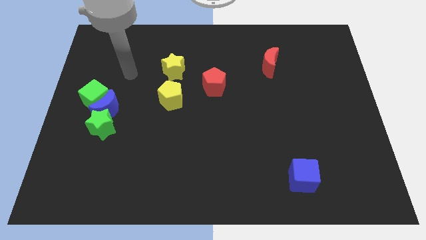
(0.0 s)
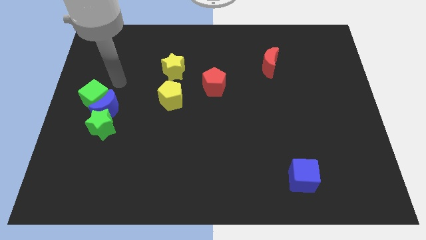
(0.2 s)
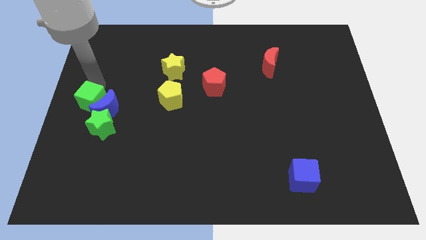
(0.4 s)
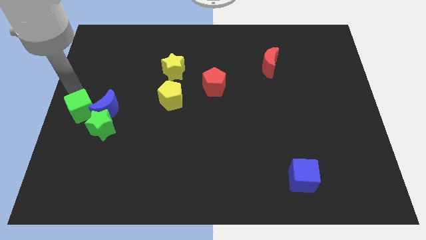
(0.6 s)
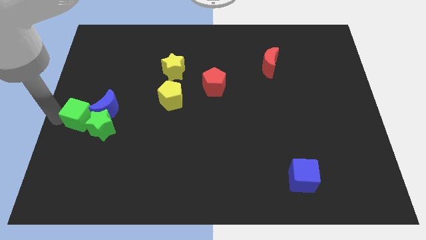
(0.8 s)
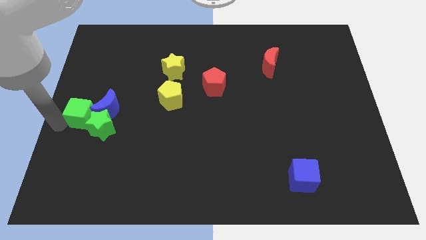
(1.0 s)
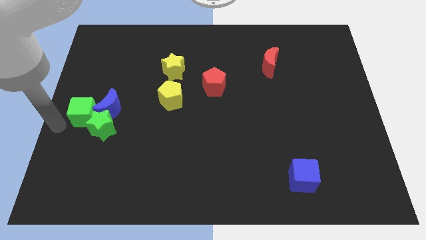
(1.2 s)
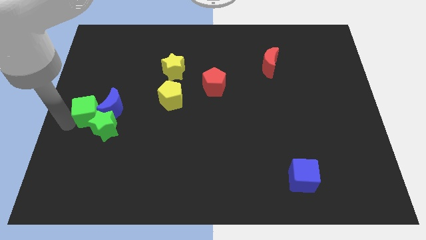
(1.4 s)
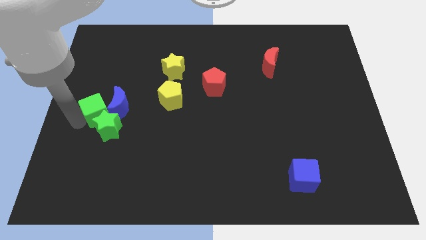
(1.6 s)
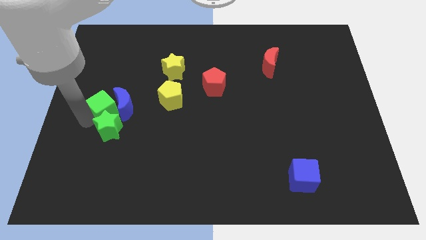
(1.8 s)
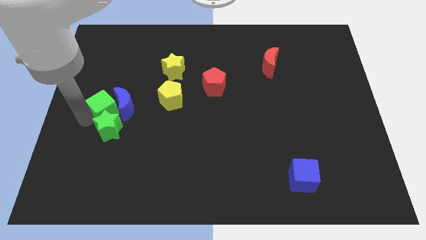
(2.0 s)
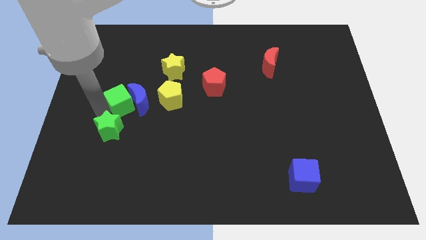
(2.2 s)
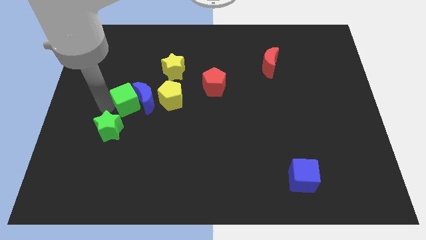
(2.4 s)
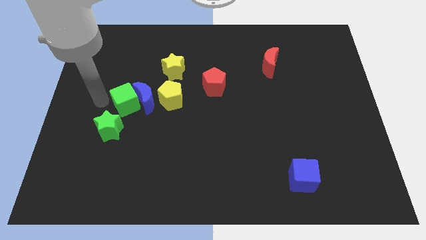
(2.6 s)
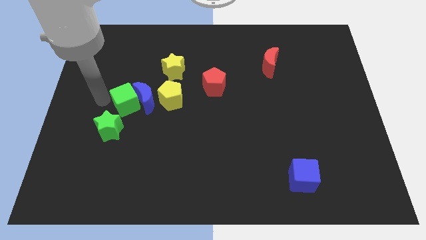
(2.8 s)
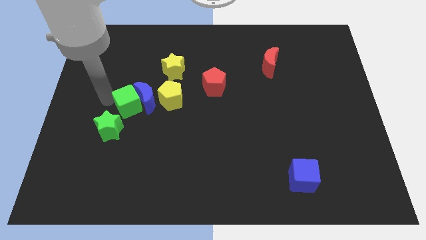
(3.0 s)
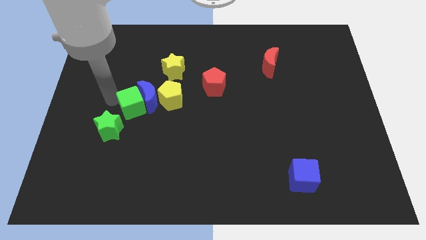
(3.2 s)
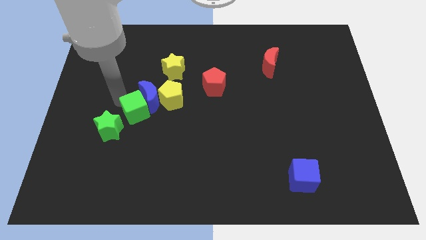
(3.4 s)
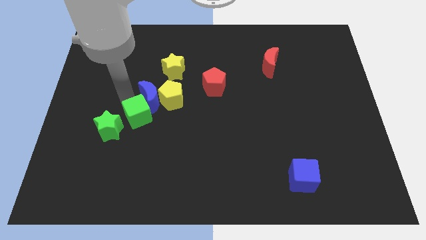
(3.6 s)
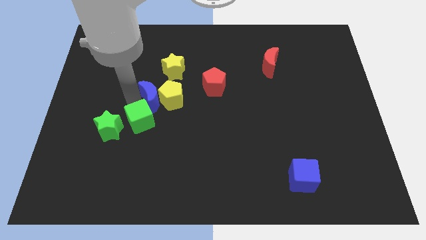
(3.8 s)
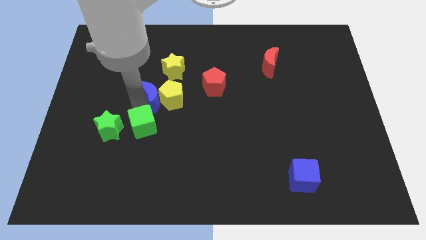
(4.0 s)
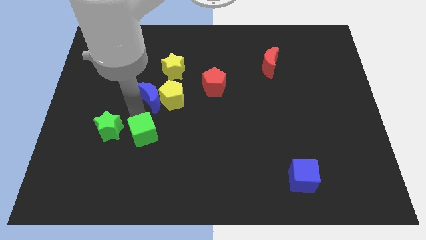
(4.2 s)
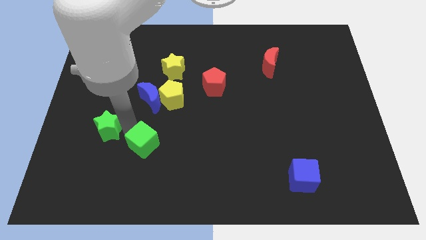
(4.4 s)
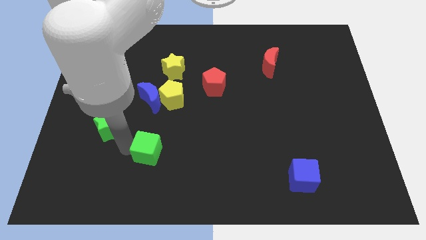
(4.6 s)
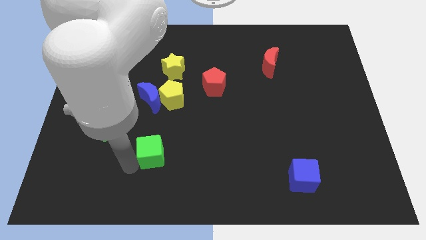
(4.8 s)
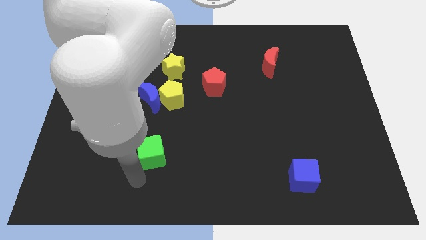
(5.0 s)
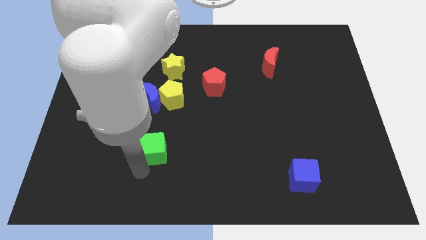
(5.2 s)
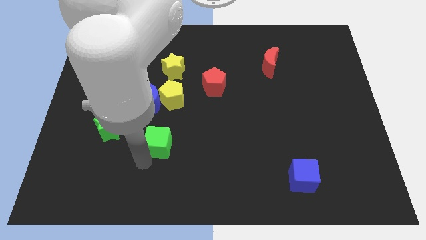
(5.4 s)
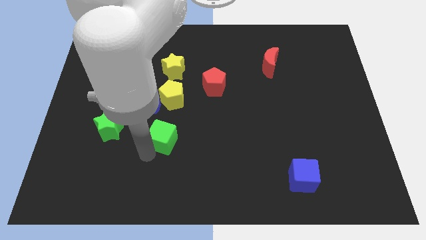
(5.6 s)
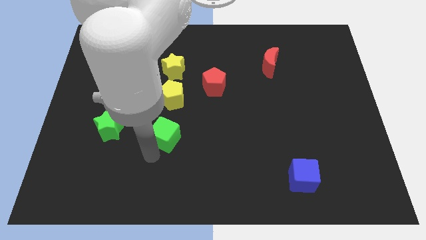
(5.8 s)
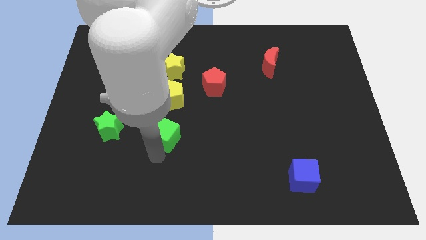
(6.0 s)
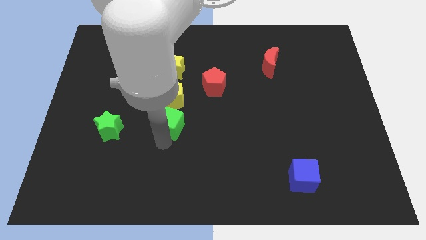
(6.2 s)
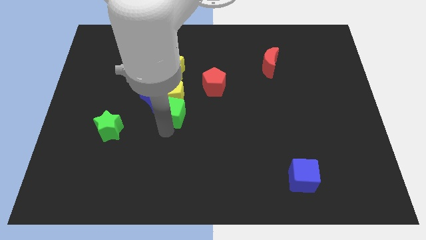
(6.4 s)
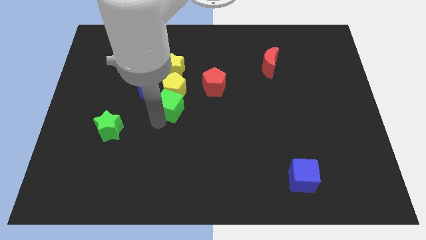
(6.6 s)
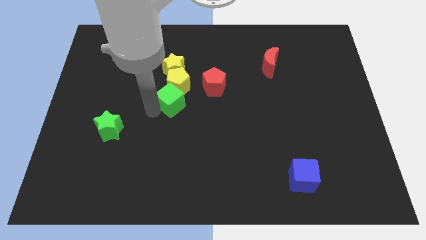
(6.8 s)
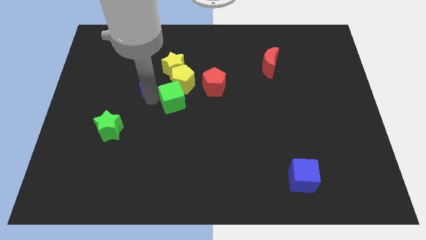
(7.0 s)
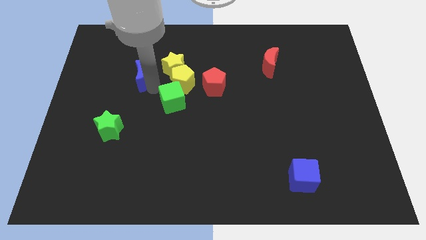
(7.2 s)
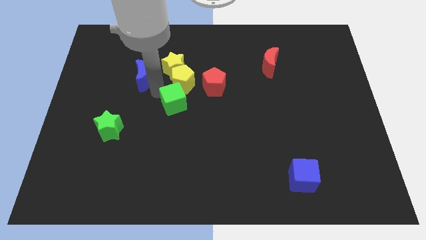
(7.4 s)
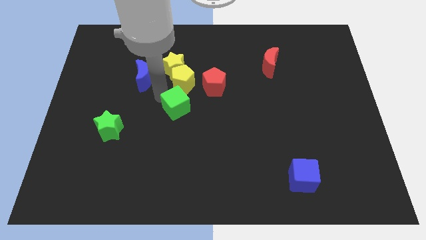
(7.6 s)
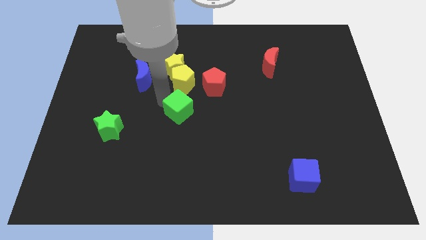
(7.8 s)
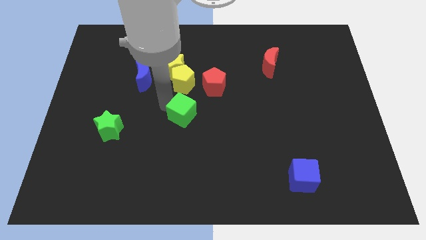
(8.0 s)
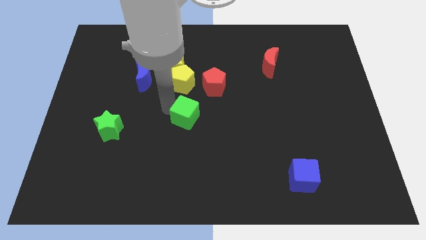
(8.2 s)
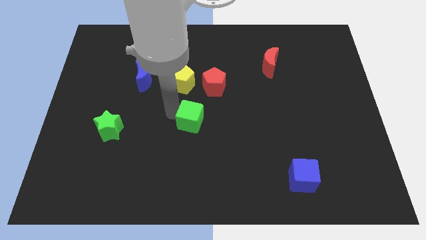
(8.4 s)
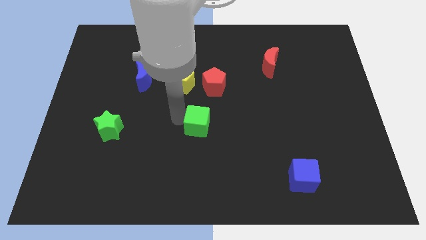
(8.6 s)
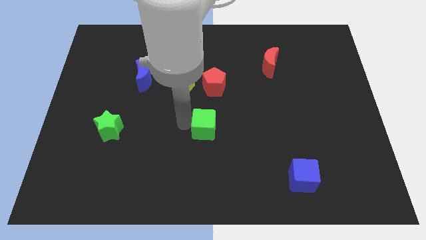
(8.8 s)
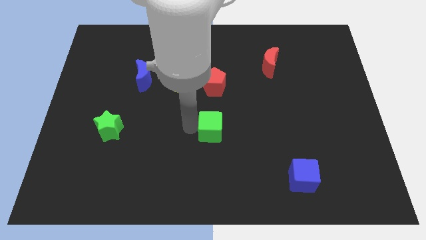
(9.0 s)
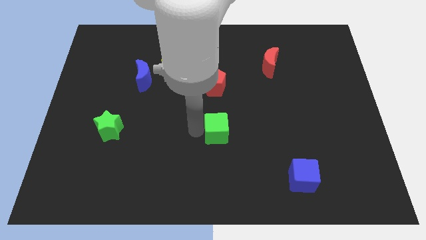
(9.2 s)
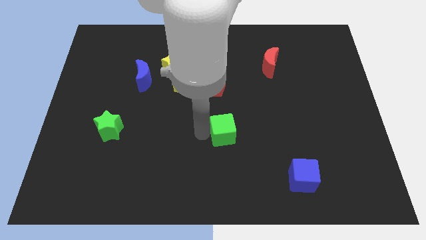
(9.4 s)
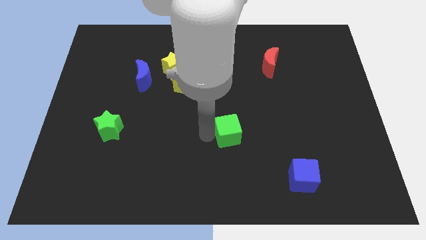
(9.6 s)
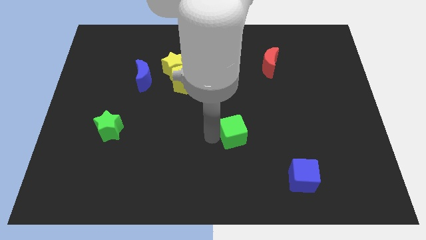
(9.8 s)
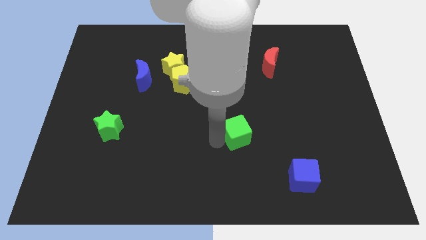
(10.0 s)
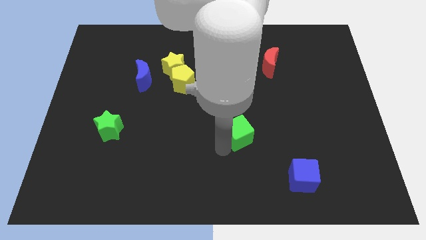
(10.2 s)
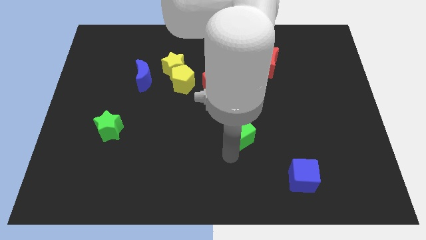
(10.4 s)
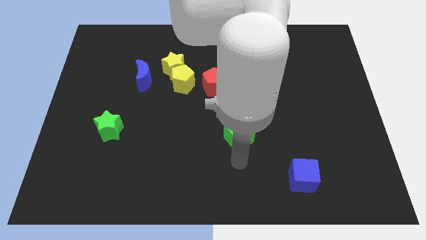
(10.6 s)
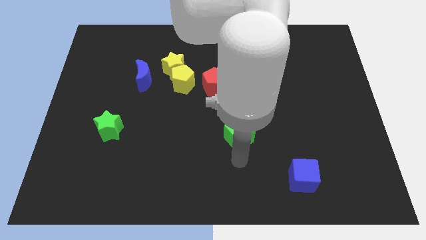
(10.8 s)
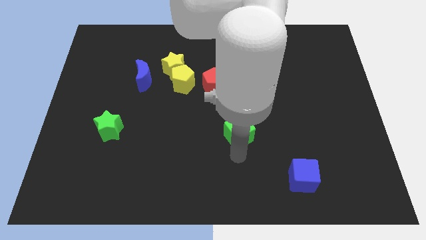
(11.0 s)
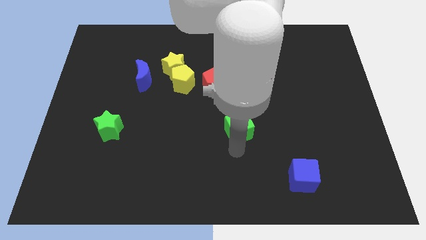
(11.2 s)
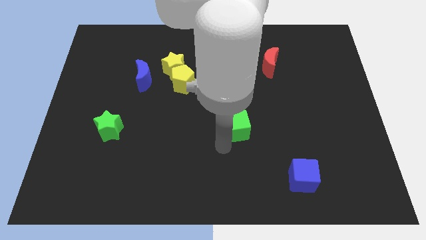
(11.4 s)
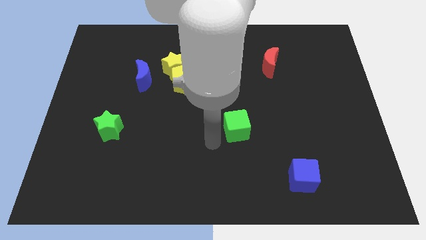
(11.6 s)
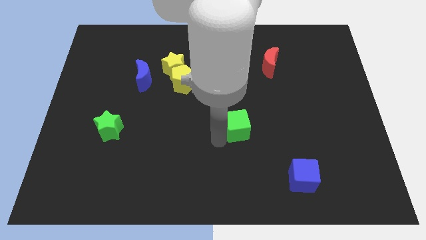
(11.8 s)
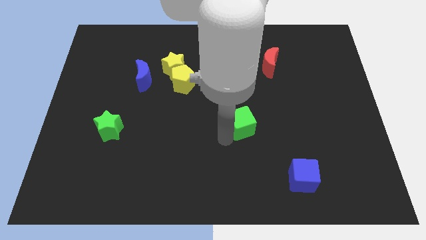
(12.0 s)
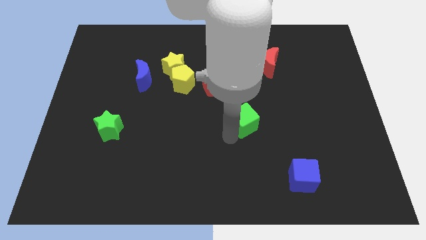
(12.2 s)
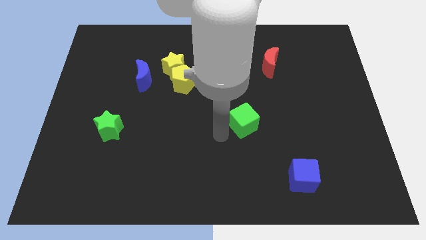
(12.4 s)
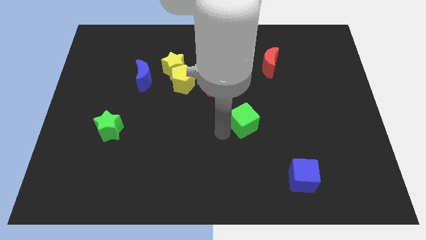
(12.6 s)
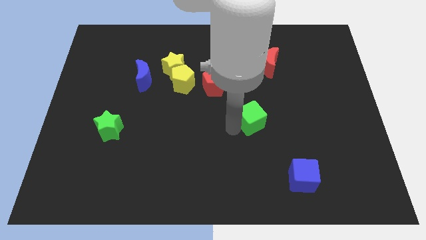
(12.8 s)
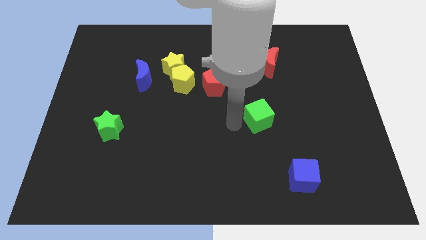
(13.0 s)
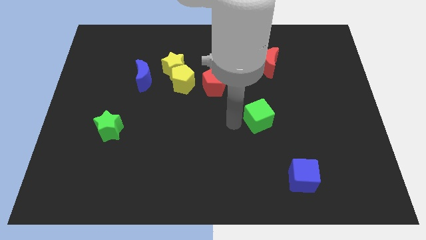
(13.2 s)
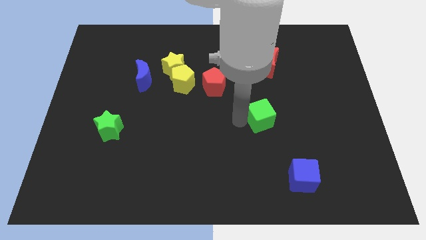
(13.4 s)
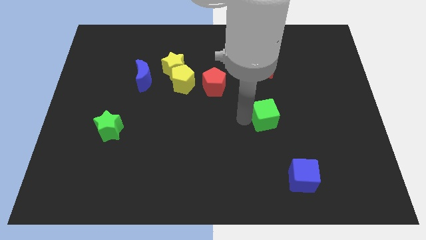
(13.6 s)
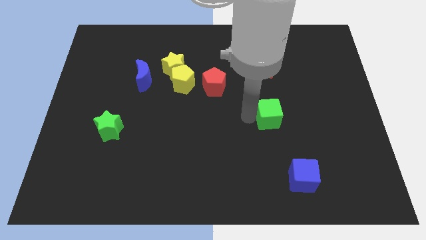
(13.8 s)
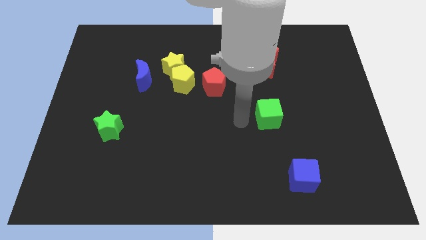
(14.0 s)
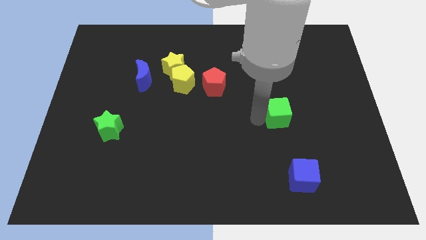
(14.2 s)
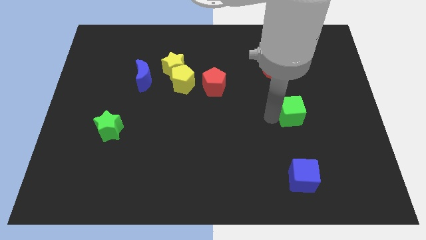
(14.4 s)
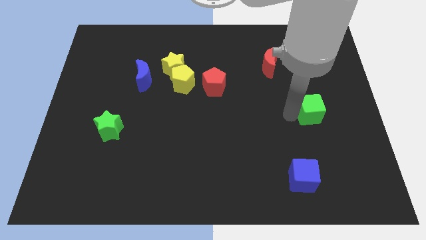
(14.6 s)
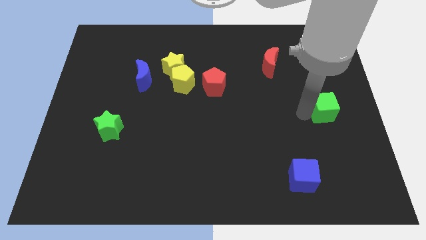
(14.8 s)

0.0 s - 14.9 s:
slide the green cube to the right side of the board
